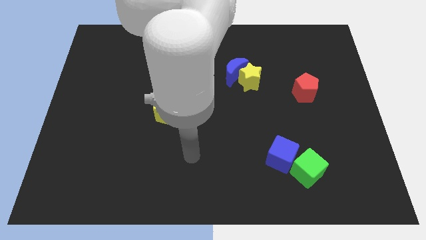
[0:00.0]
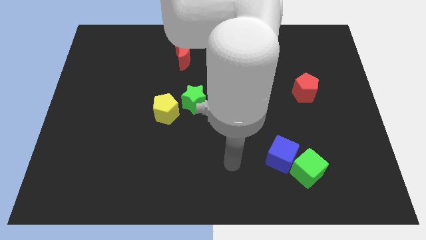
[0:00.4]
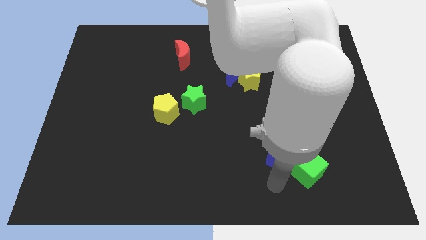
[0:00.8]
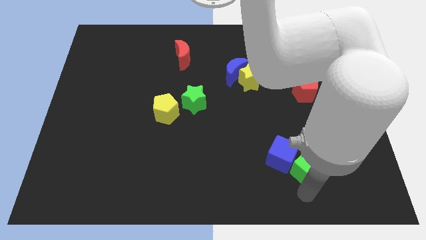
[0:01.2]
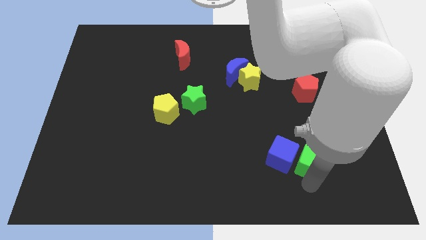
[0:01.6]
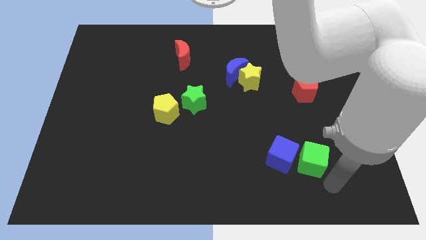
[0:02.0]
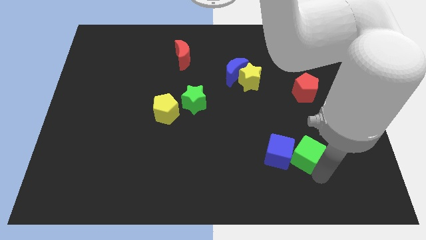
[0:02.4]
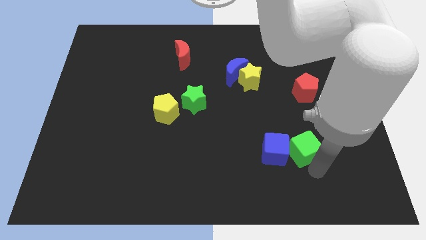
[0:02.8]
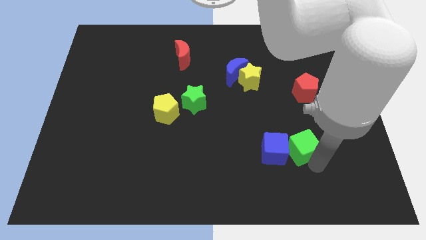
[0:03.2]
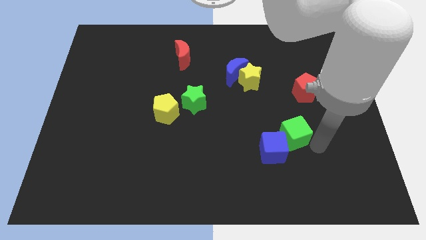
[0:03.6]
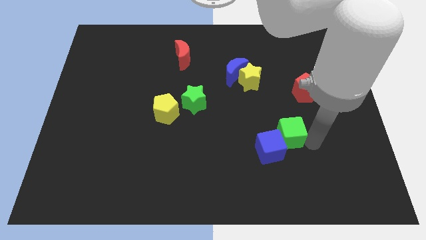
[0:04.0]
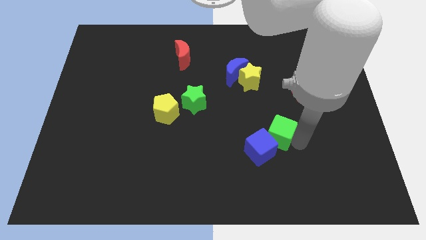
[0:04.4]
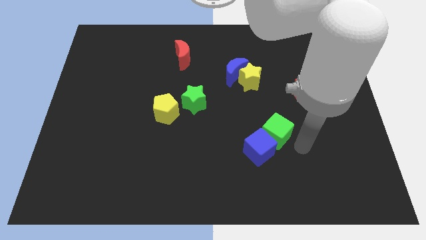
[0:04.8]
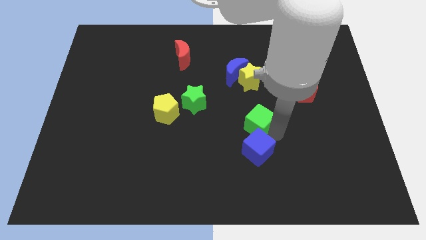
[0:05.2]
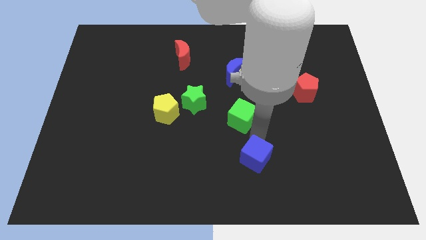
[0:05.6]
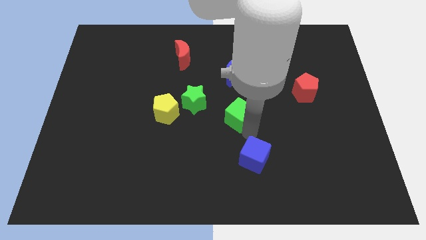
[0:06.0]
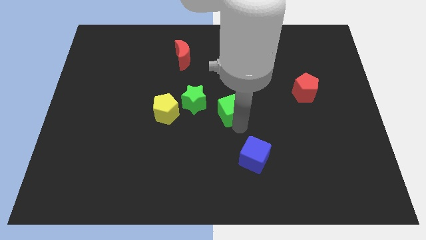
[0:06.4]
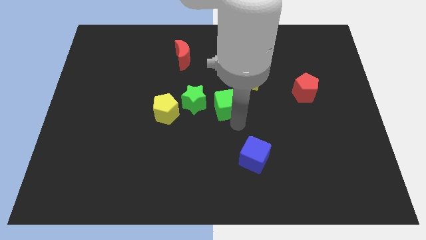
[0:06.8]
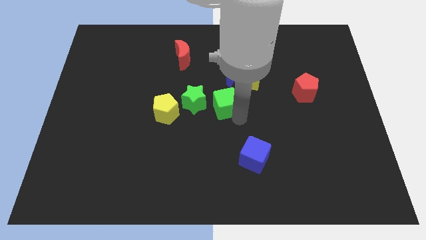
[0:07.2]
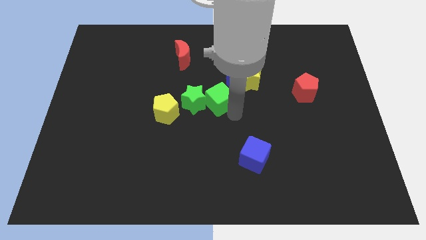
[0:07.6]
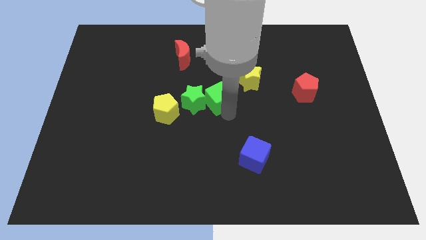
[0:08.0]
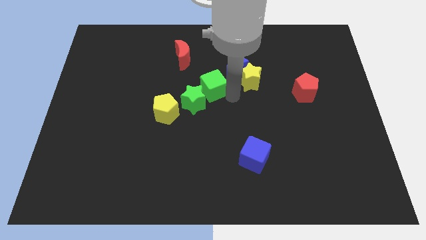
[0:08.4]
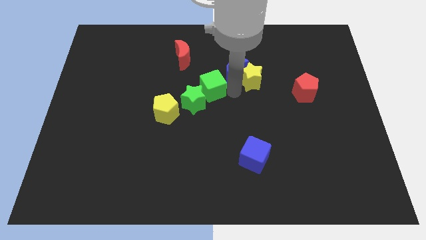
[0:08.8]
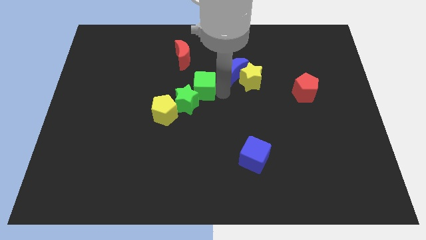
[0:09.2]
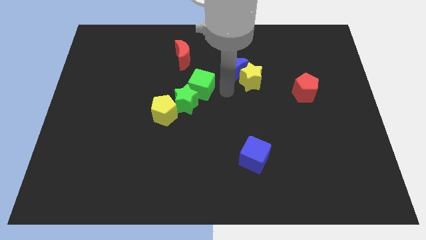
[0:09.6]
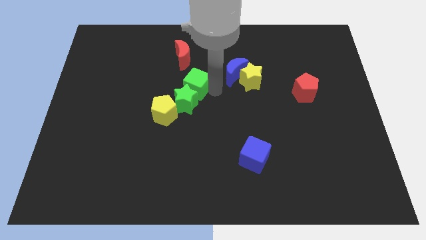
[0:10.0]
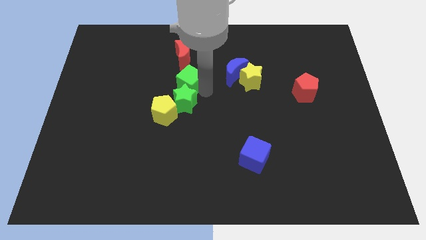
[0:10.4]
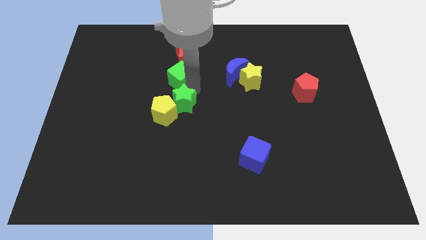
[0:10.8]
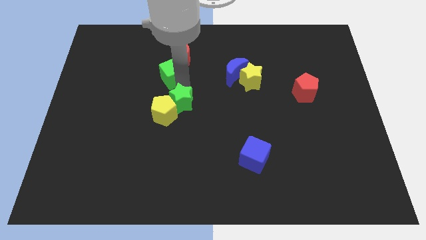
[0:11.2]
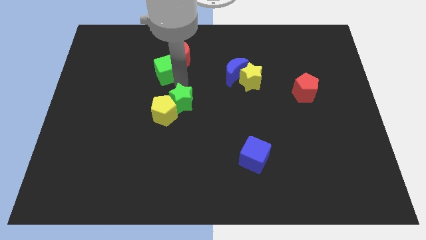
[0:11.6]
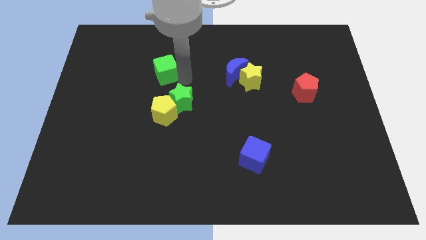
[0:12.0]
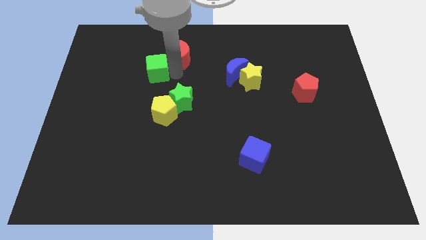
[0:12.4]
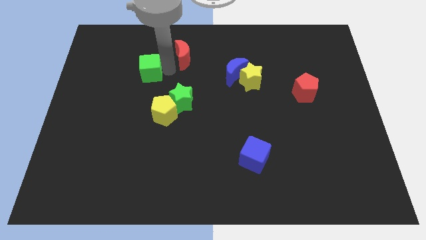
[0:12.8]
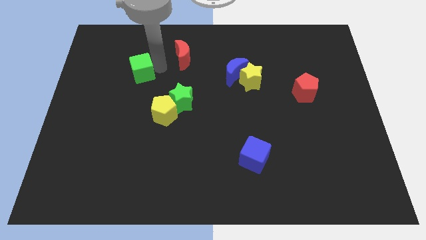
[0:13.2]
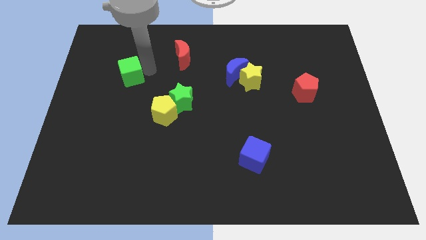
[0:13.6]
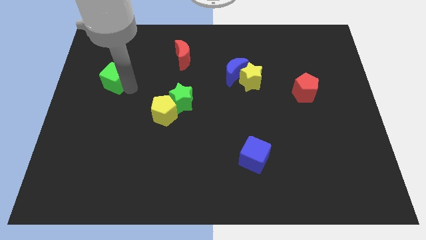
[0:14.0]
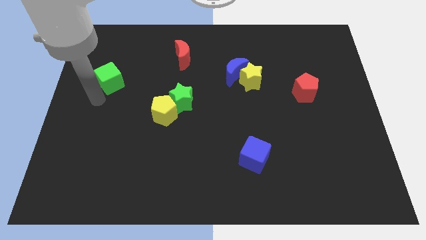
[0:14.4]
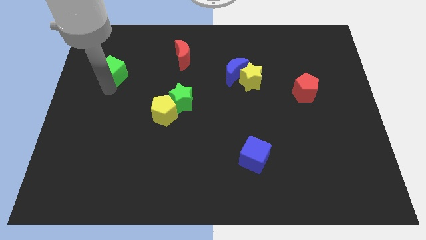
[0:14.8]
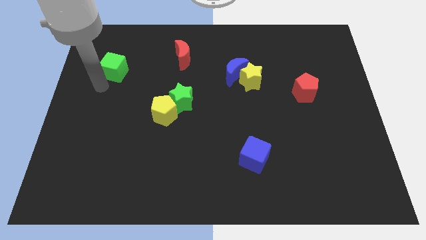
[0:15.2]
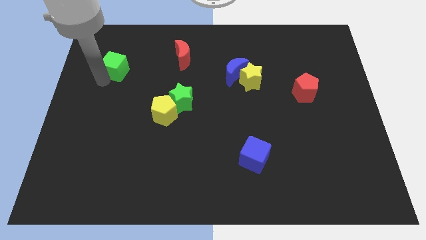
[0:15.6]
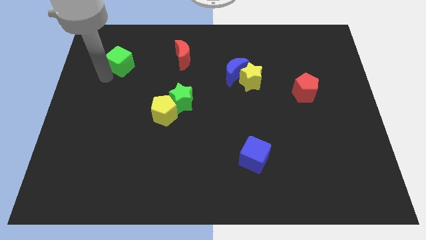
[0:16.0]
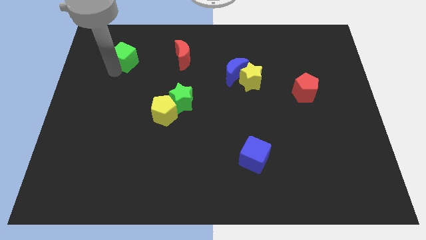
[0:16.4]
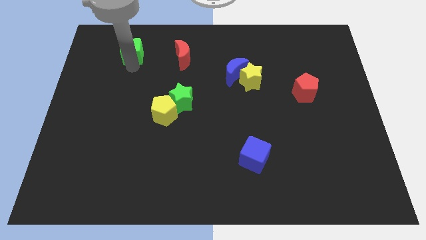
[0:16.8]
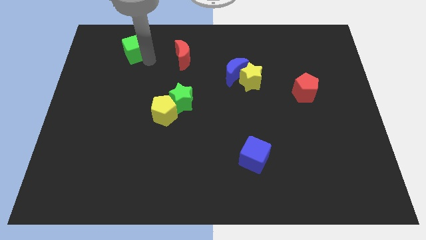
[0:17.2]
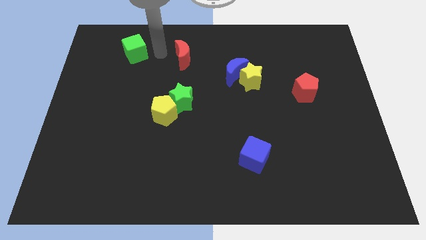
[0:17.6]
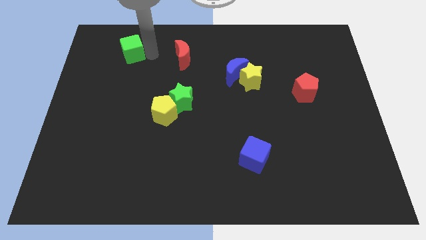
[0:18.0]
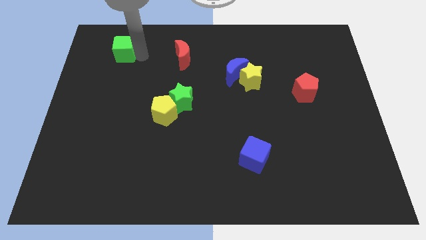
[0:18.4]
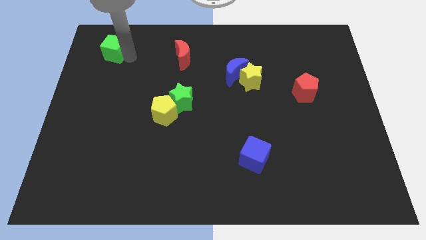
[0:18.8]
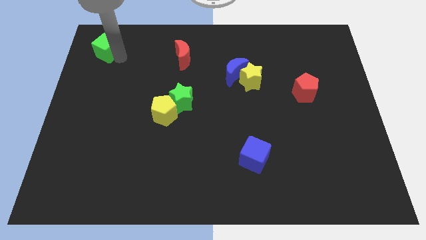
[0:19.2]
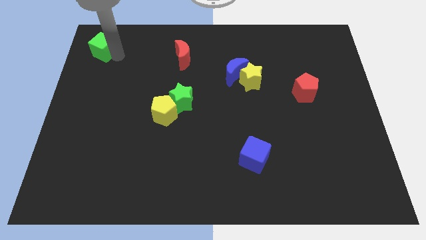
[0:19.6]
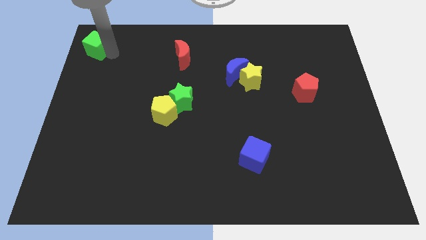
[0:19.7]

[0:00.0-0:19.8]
put the green cube to the top left of the board

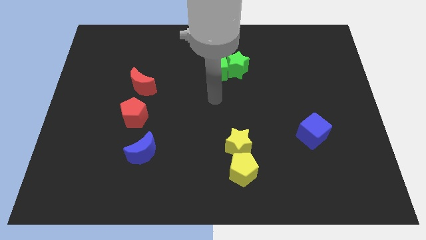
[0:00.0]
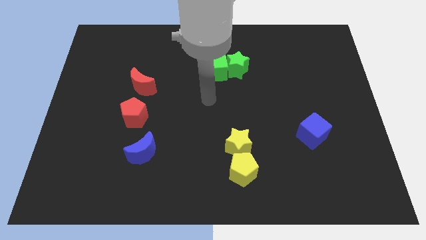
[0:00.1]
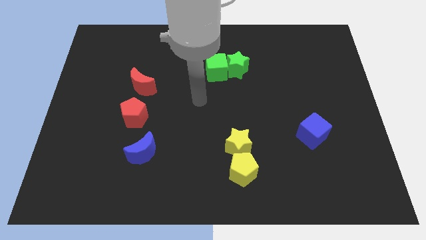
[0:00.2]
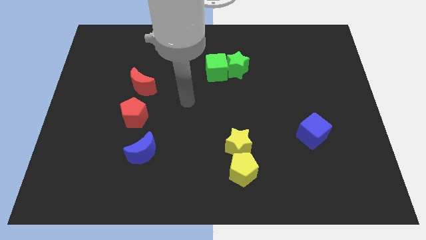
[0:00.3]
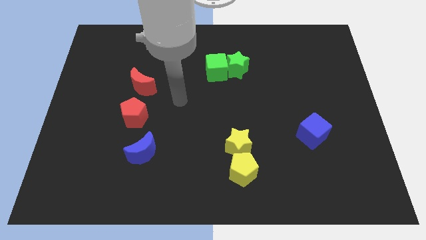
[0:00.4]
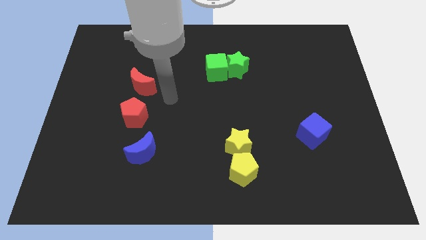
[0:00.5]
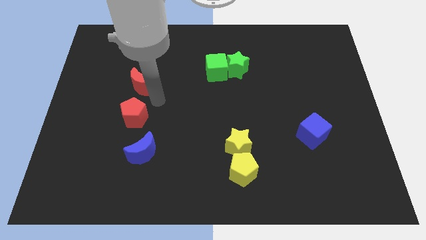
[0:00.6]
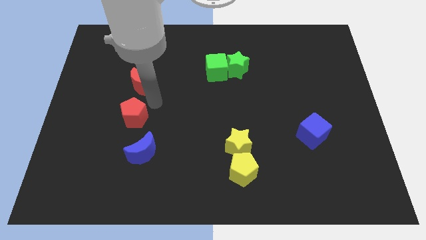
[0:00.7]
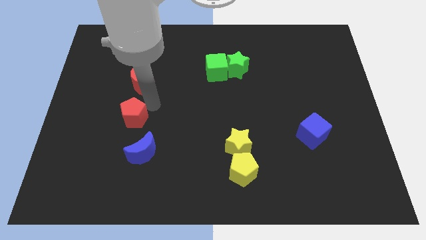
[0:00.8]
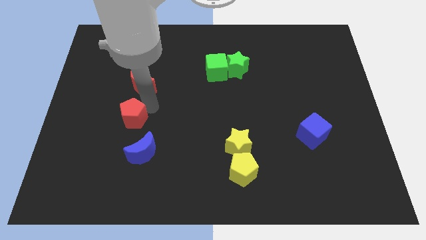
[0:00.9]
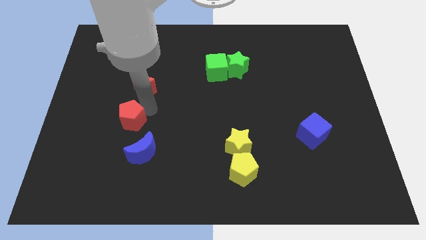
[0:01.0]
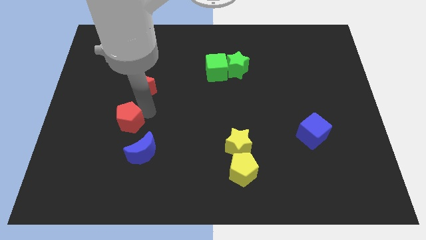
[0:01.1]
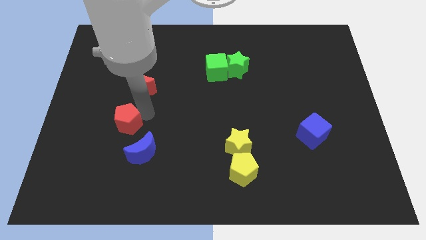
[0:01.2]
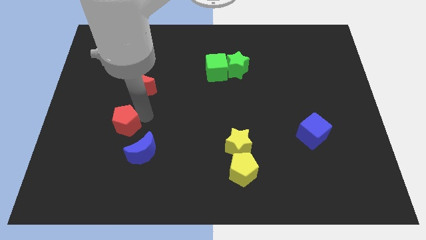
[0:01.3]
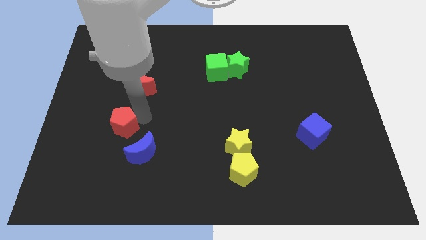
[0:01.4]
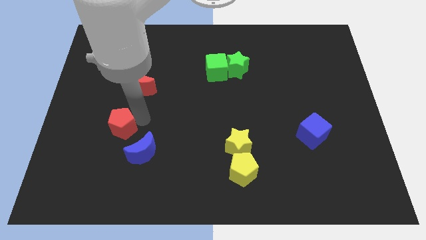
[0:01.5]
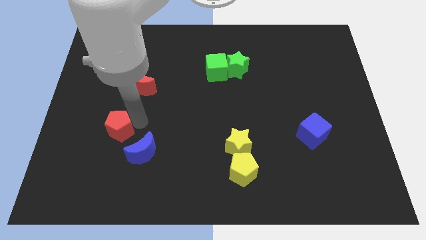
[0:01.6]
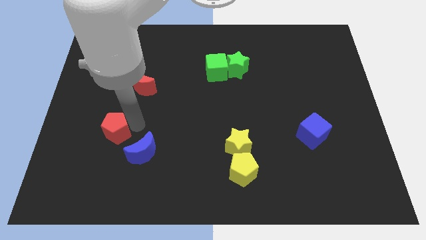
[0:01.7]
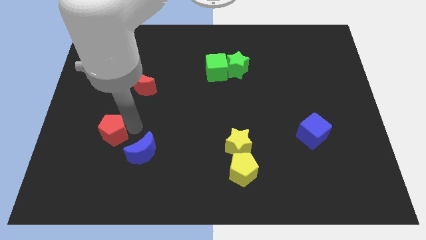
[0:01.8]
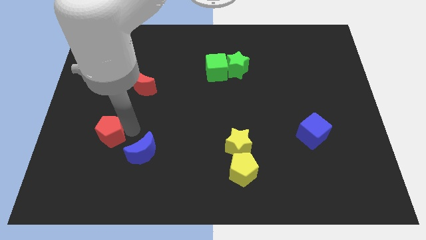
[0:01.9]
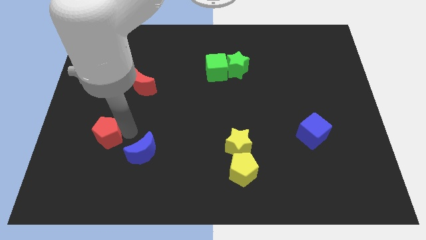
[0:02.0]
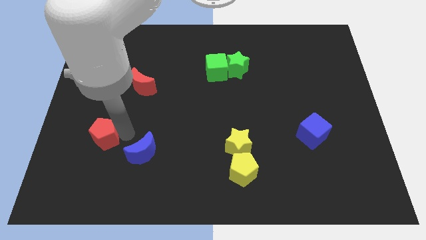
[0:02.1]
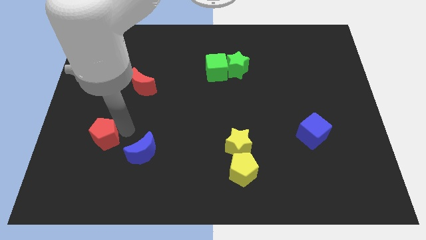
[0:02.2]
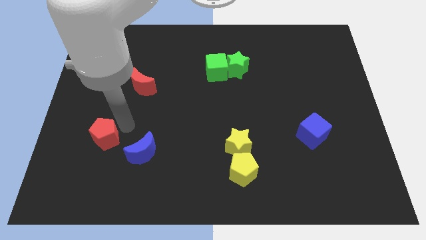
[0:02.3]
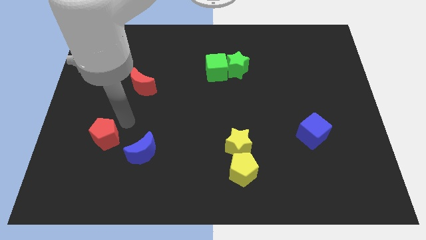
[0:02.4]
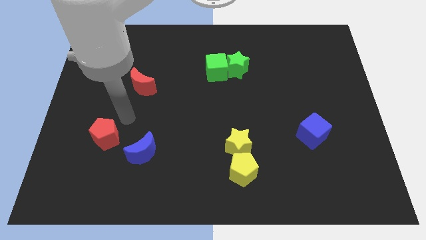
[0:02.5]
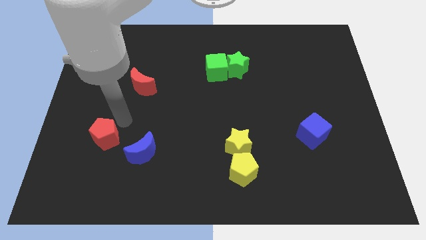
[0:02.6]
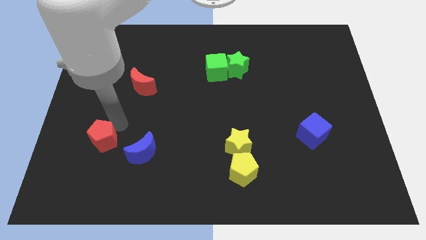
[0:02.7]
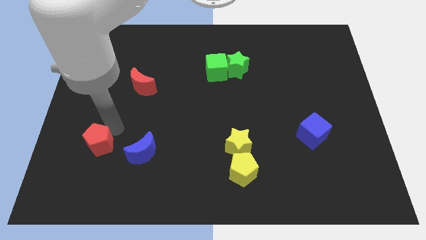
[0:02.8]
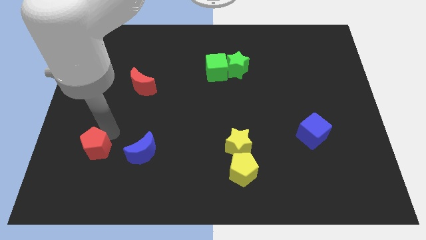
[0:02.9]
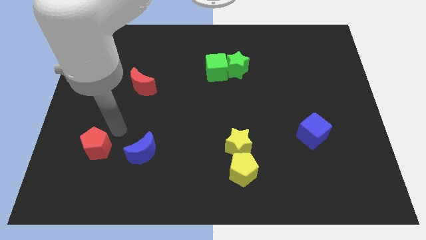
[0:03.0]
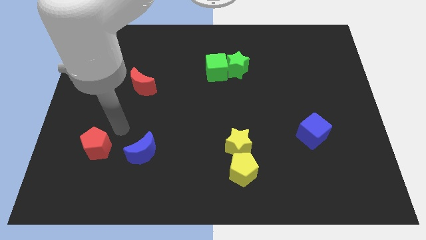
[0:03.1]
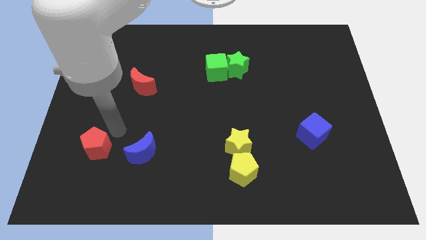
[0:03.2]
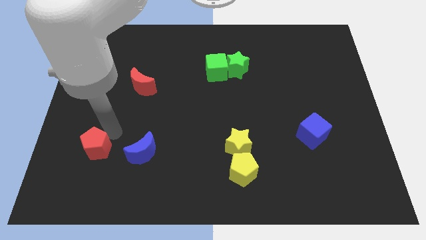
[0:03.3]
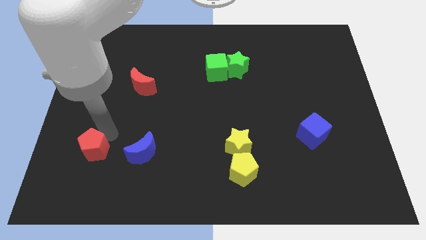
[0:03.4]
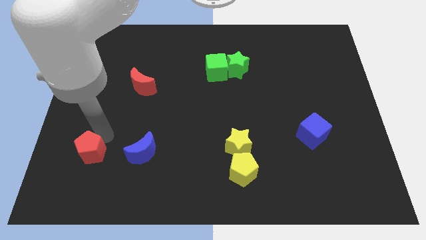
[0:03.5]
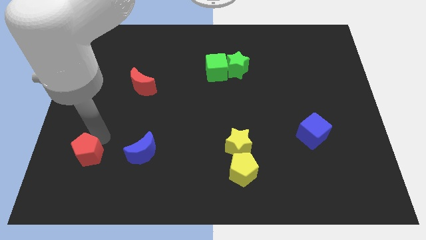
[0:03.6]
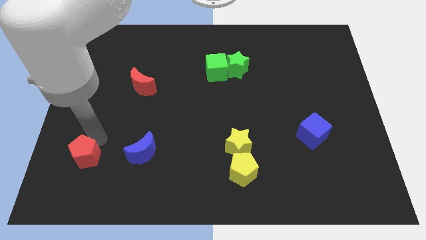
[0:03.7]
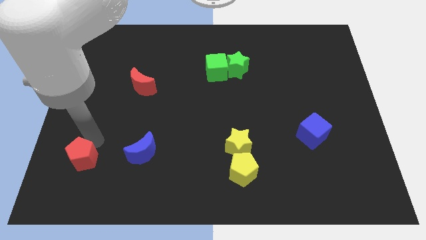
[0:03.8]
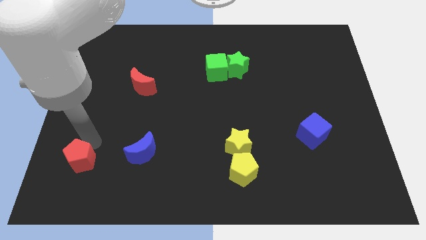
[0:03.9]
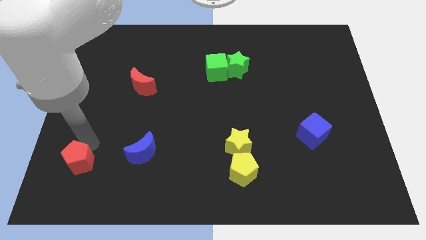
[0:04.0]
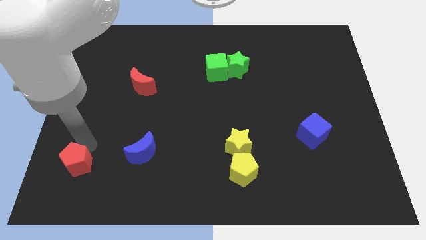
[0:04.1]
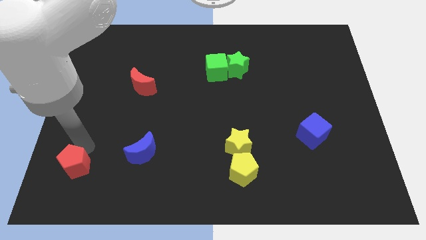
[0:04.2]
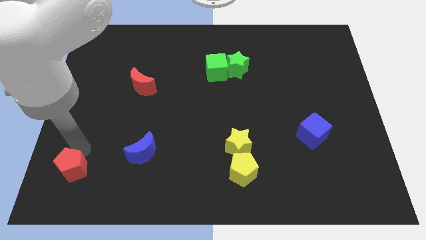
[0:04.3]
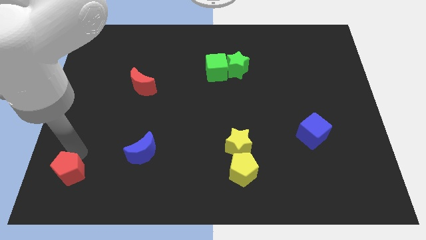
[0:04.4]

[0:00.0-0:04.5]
put the red pentagon to the bottom left corner
